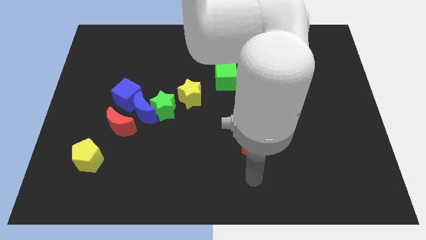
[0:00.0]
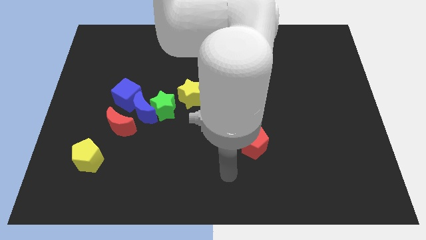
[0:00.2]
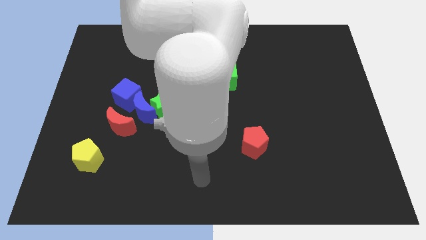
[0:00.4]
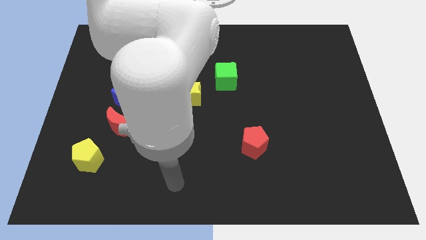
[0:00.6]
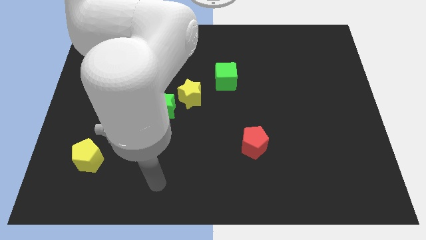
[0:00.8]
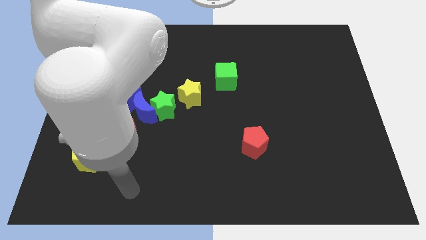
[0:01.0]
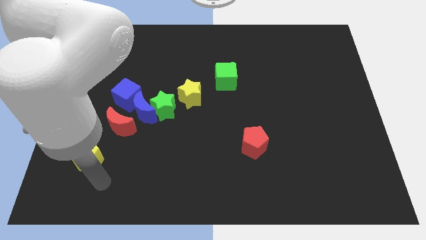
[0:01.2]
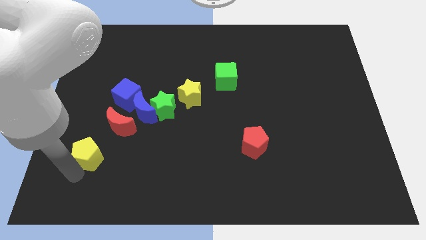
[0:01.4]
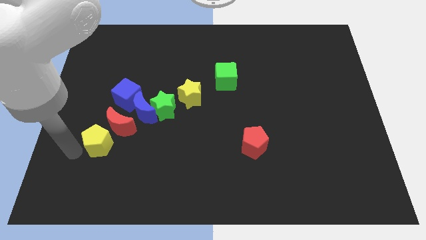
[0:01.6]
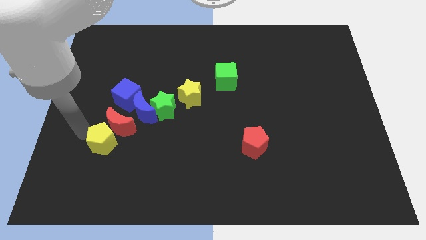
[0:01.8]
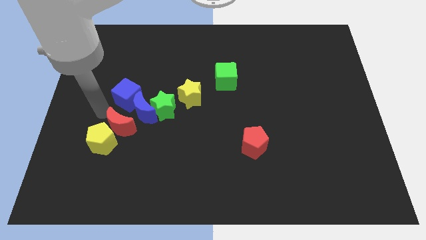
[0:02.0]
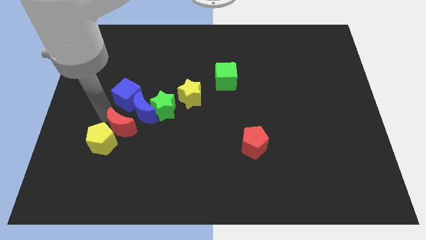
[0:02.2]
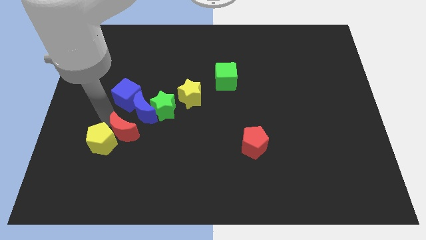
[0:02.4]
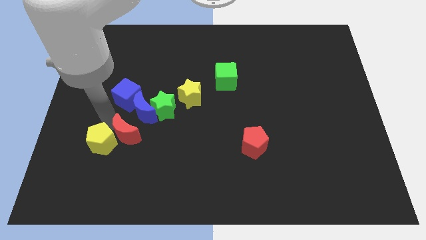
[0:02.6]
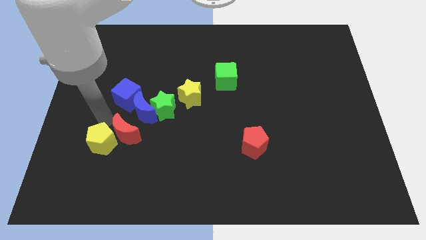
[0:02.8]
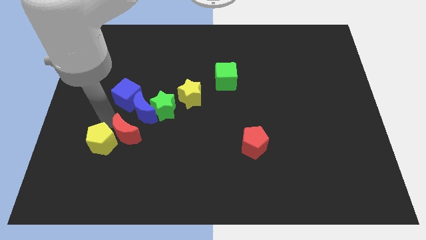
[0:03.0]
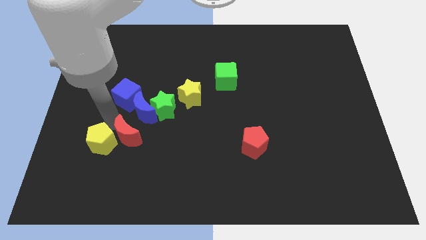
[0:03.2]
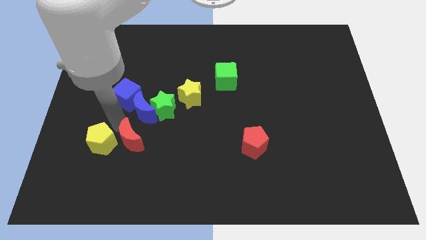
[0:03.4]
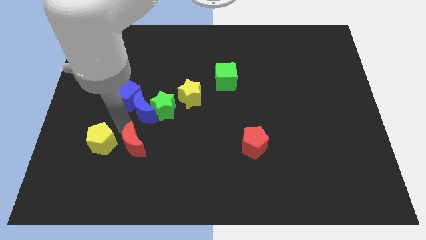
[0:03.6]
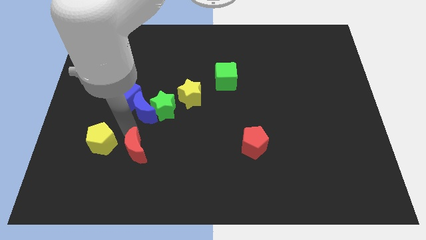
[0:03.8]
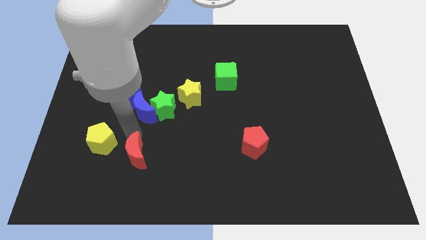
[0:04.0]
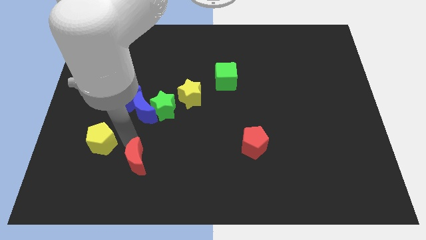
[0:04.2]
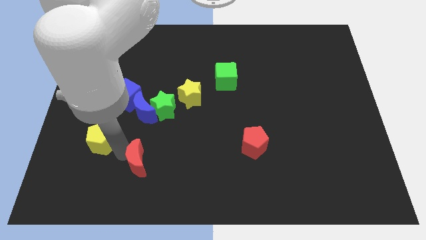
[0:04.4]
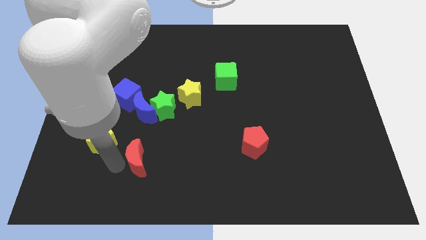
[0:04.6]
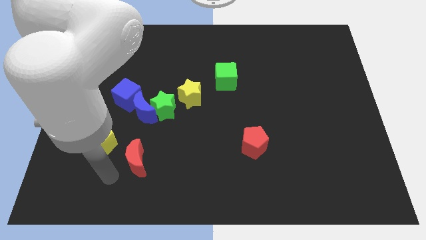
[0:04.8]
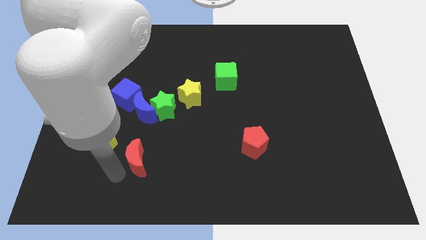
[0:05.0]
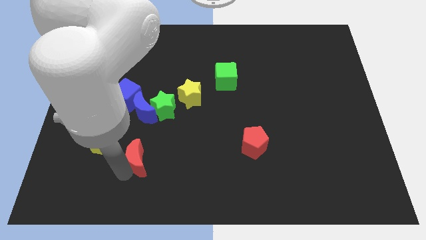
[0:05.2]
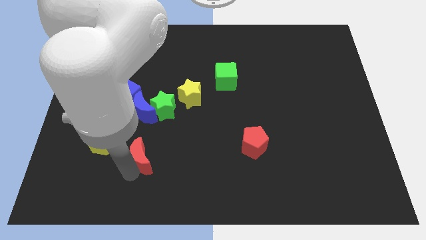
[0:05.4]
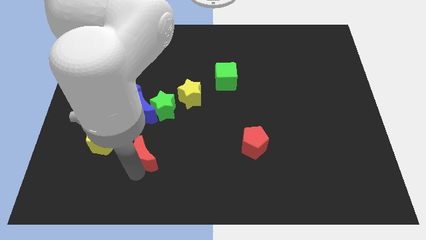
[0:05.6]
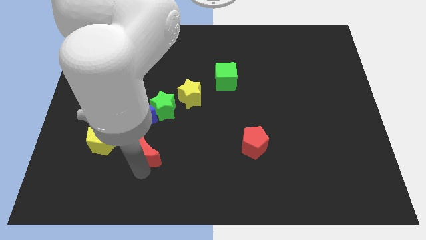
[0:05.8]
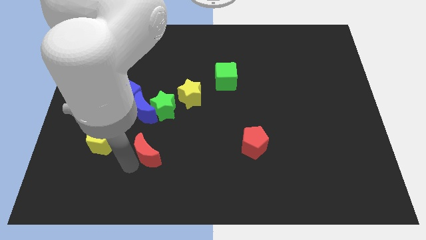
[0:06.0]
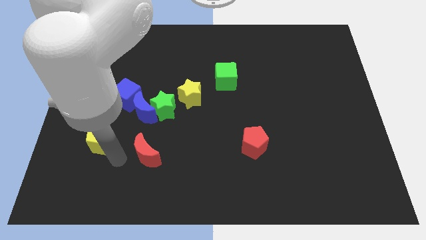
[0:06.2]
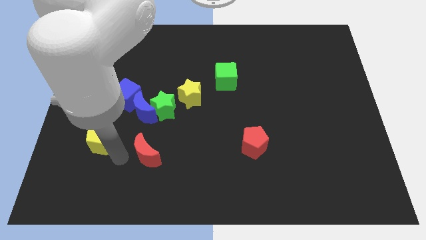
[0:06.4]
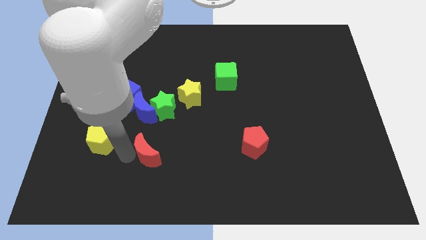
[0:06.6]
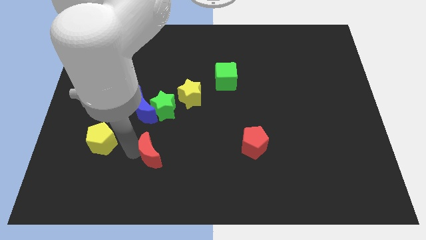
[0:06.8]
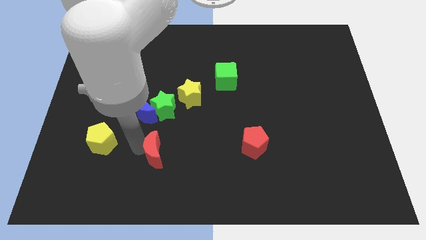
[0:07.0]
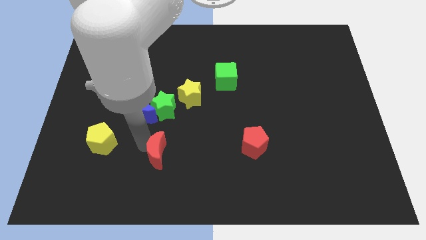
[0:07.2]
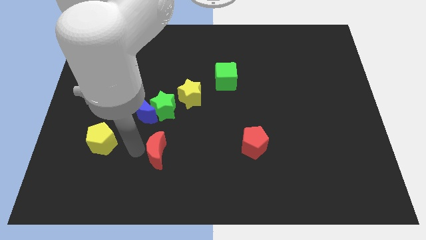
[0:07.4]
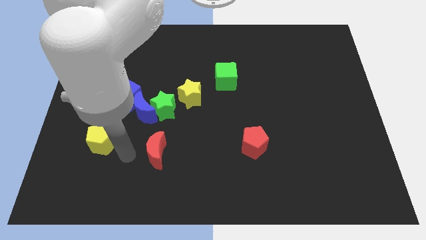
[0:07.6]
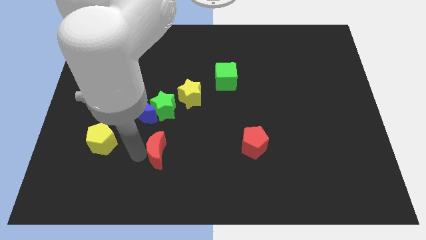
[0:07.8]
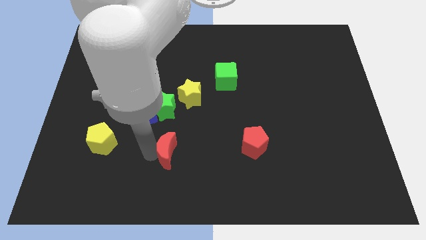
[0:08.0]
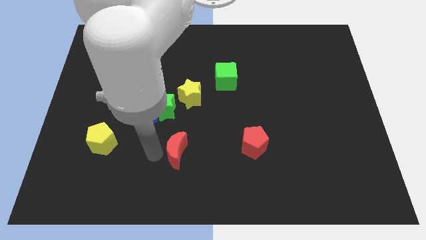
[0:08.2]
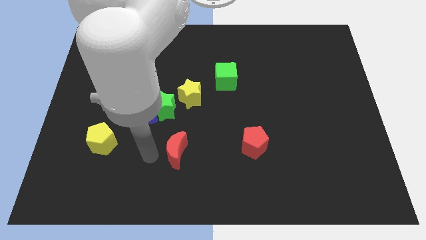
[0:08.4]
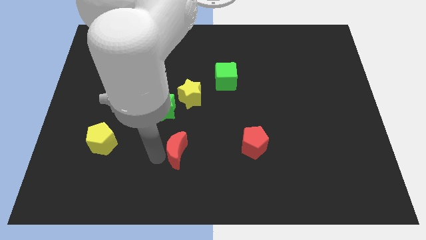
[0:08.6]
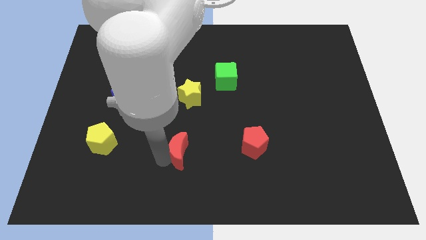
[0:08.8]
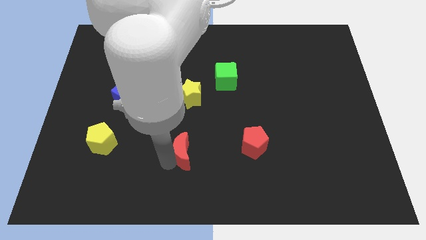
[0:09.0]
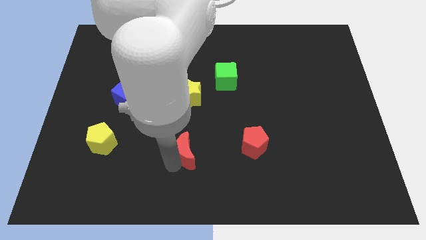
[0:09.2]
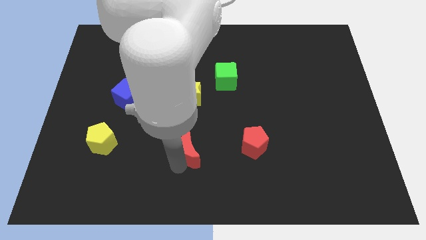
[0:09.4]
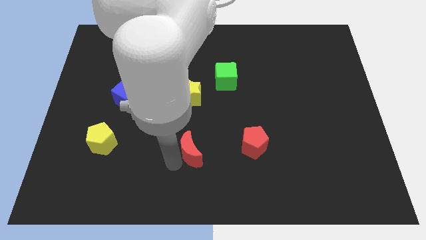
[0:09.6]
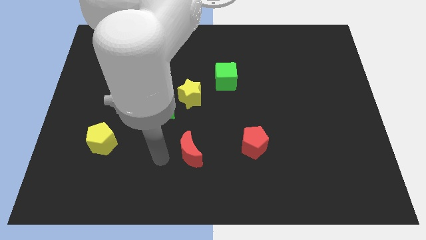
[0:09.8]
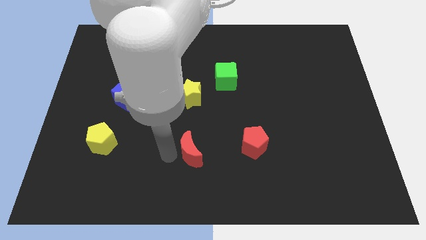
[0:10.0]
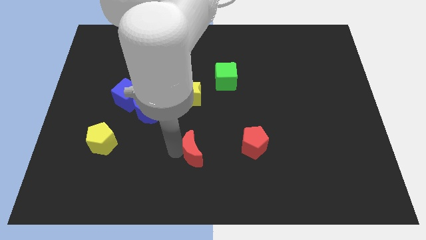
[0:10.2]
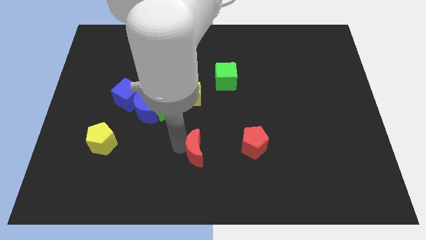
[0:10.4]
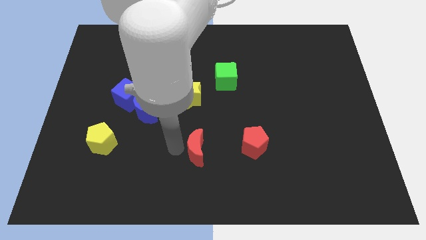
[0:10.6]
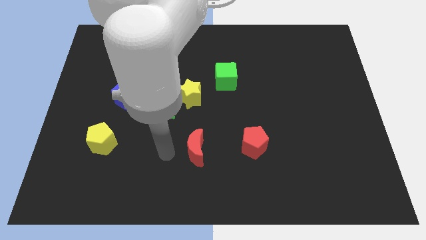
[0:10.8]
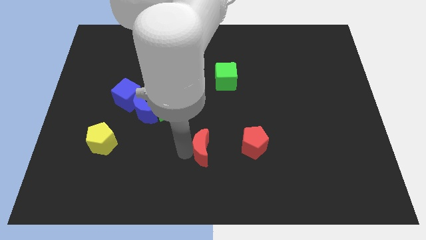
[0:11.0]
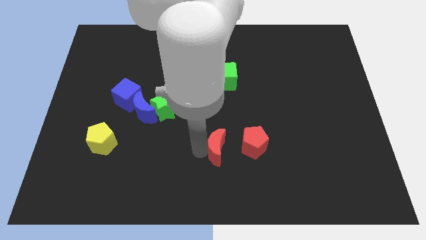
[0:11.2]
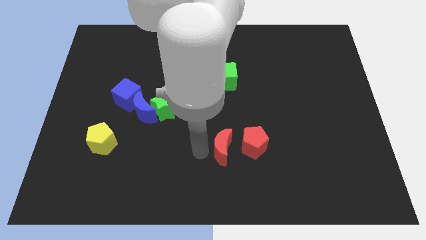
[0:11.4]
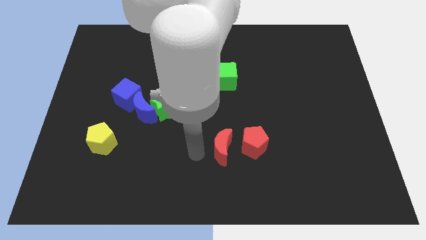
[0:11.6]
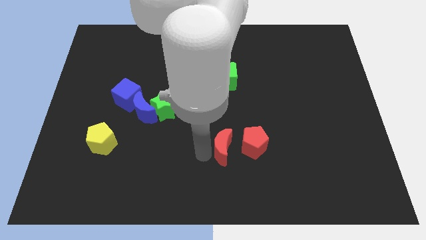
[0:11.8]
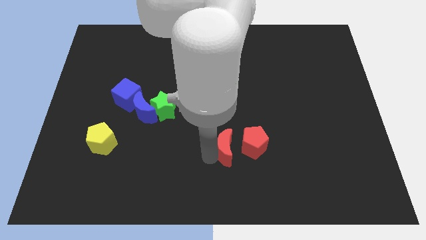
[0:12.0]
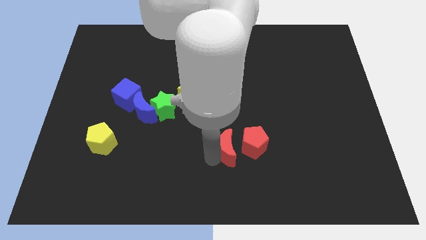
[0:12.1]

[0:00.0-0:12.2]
slide the red moon close to the red pentagon

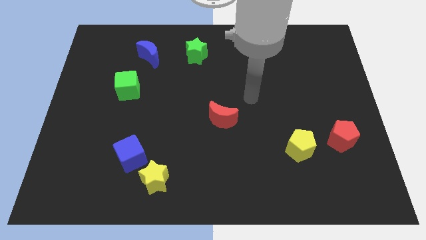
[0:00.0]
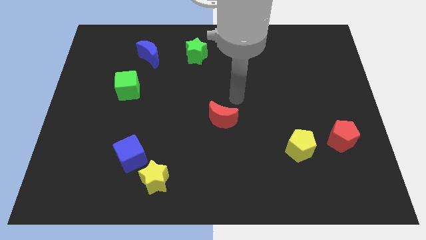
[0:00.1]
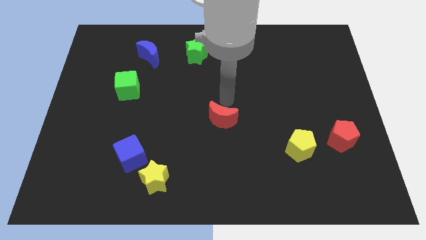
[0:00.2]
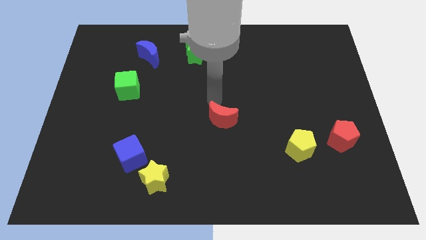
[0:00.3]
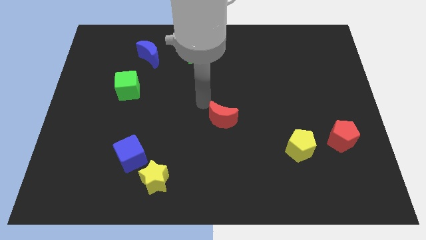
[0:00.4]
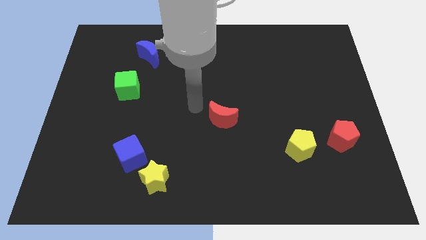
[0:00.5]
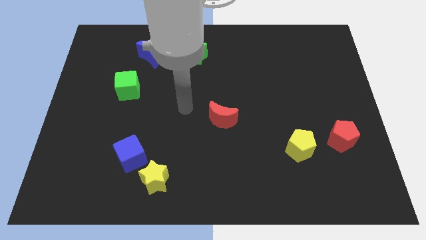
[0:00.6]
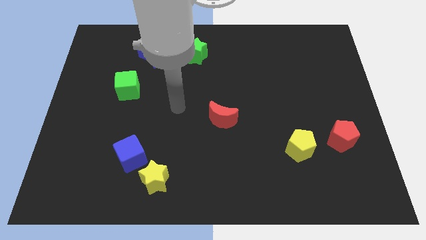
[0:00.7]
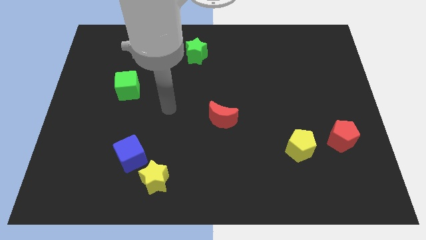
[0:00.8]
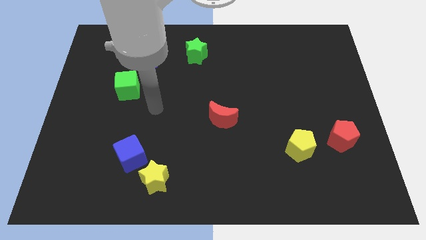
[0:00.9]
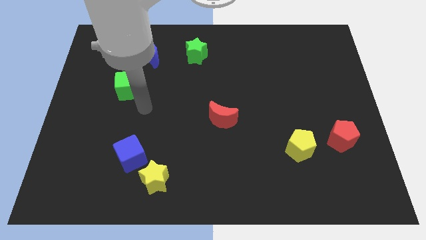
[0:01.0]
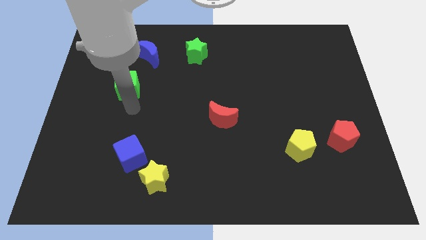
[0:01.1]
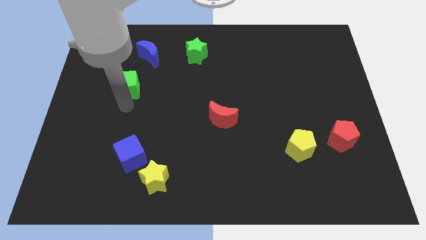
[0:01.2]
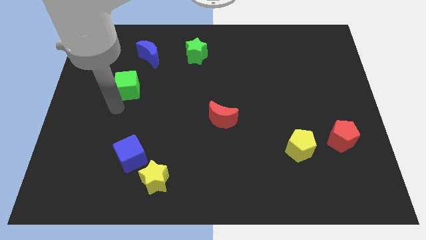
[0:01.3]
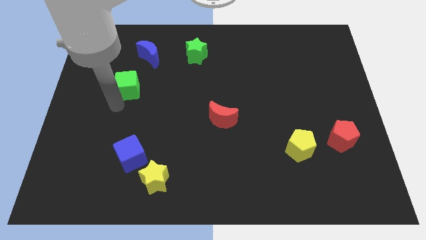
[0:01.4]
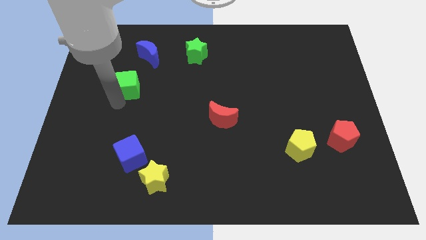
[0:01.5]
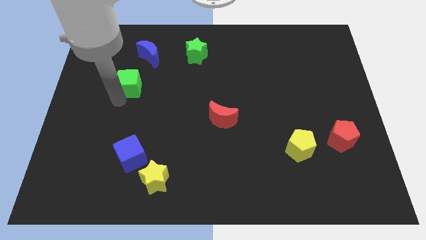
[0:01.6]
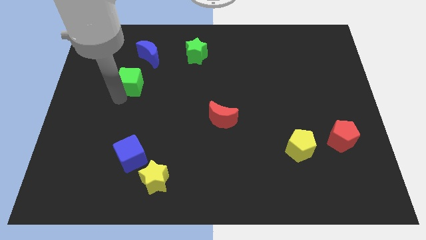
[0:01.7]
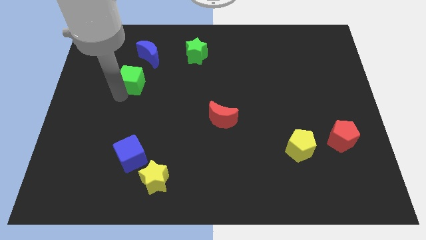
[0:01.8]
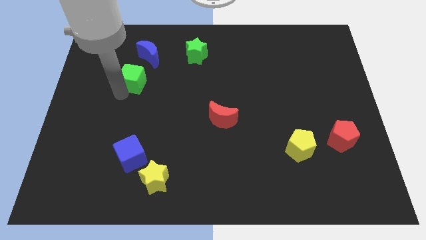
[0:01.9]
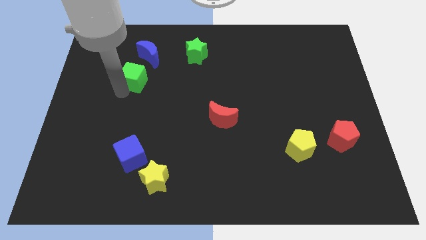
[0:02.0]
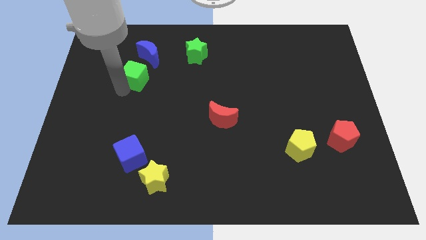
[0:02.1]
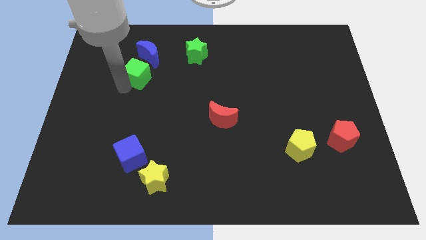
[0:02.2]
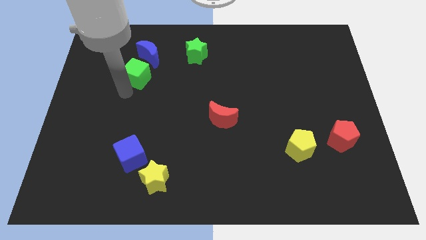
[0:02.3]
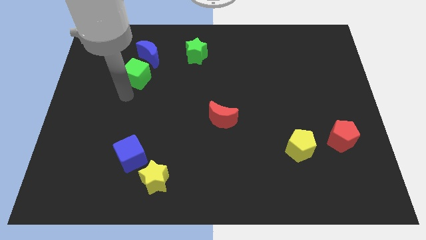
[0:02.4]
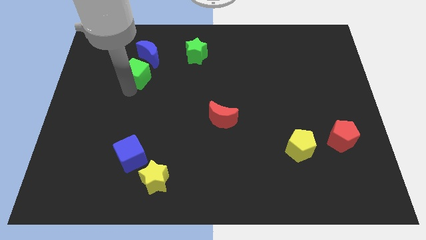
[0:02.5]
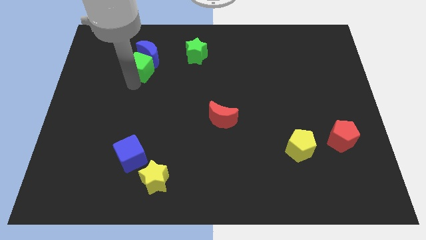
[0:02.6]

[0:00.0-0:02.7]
slide the green cube next to the blue moon
